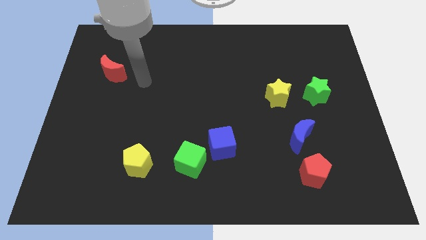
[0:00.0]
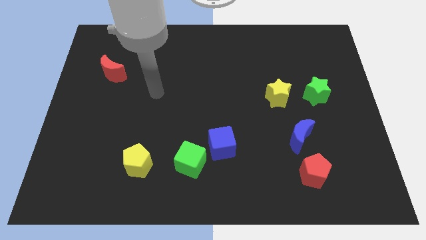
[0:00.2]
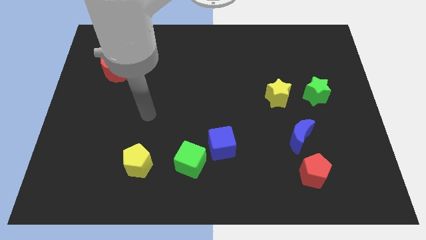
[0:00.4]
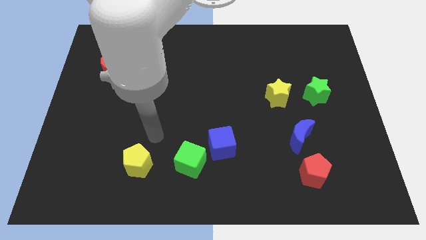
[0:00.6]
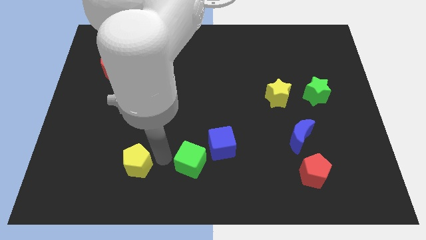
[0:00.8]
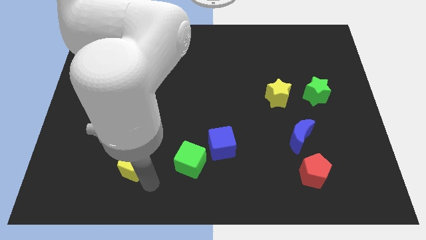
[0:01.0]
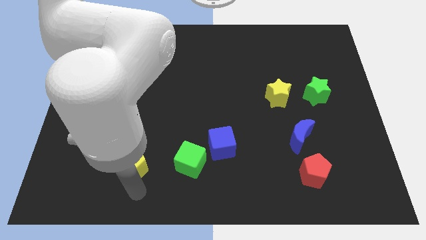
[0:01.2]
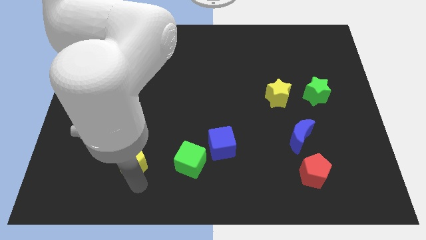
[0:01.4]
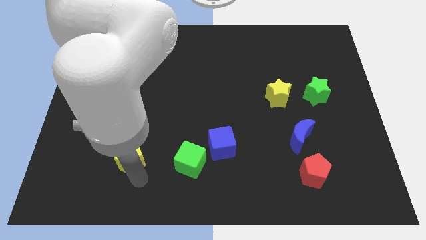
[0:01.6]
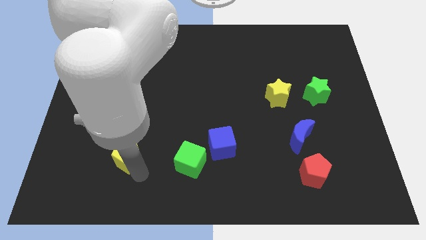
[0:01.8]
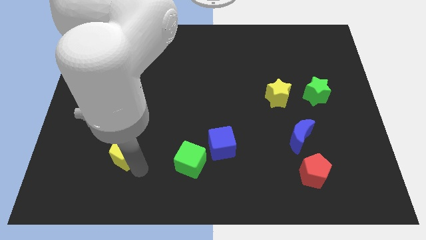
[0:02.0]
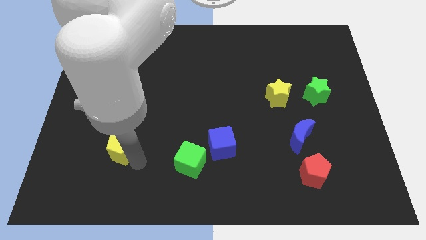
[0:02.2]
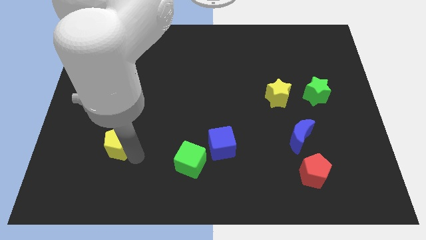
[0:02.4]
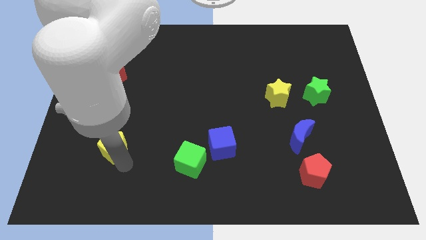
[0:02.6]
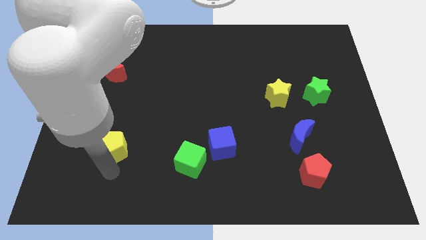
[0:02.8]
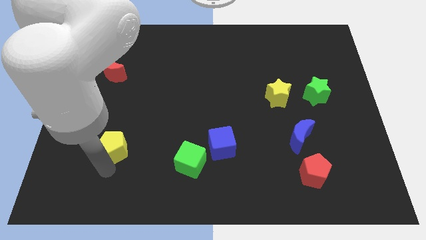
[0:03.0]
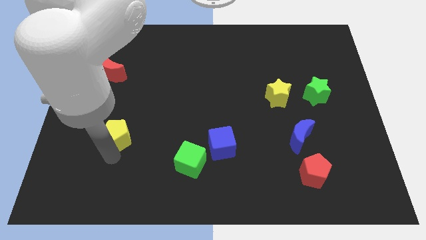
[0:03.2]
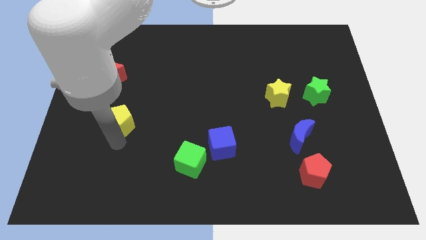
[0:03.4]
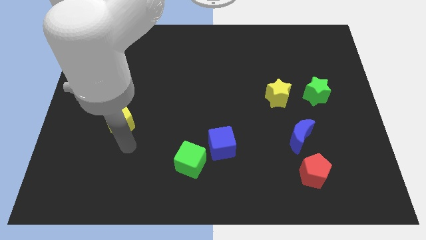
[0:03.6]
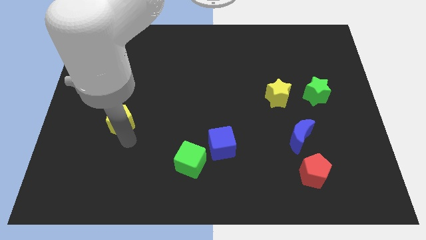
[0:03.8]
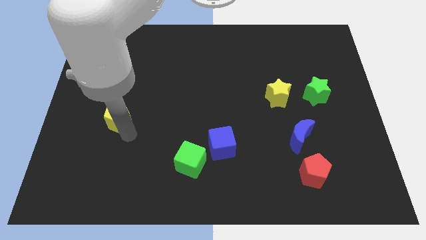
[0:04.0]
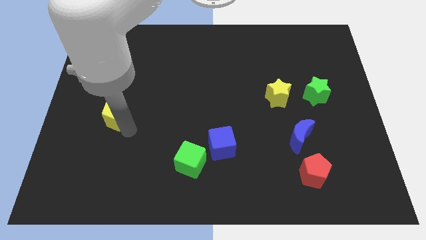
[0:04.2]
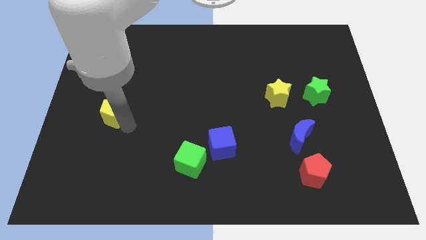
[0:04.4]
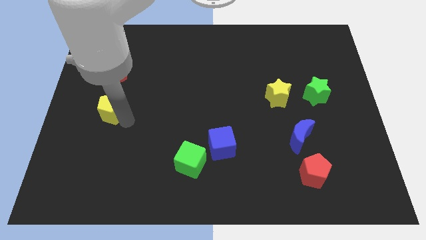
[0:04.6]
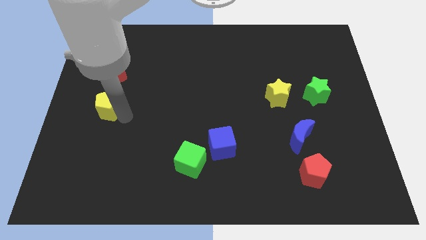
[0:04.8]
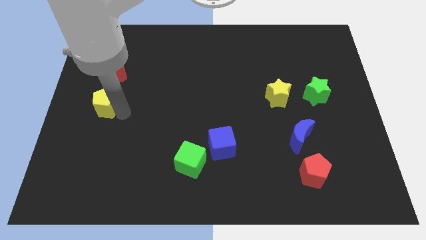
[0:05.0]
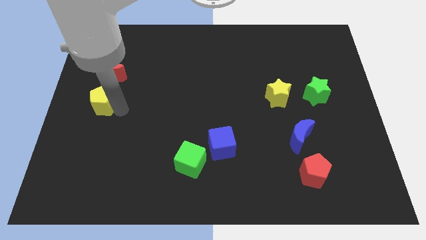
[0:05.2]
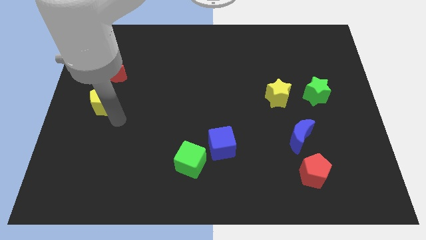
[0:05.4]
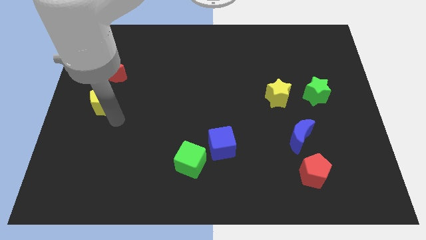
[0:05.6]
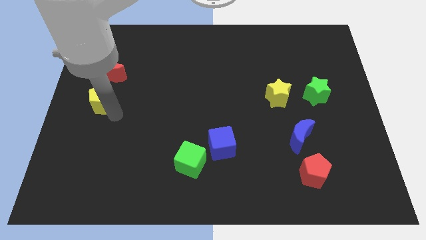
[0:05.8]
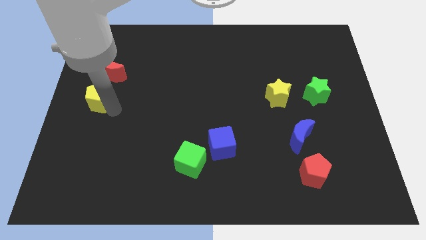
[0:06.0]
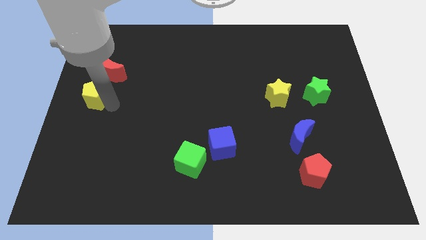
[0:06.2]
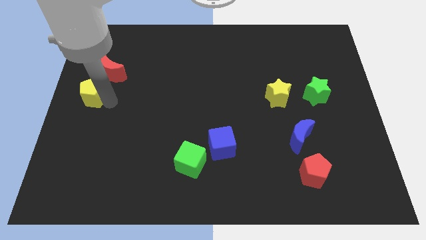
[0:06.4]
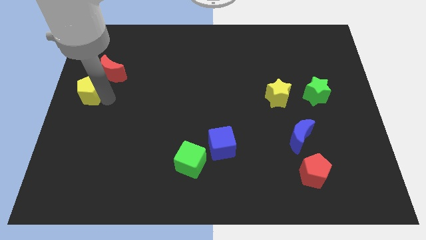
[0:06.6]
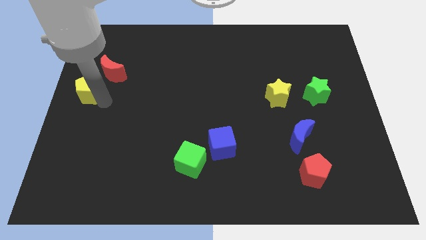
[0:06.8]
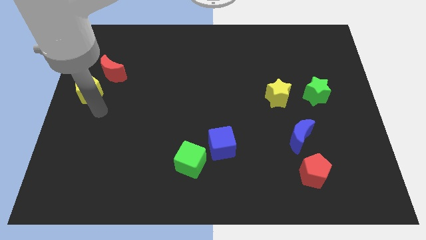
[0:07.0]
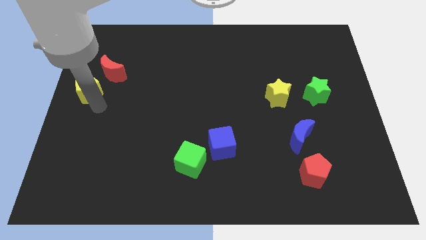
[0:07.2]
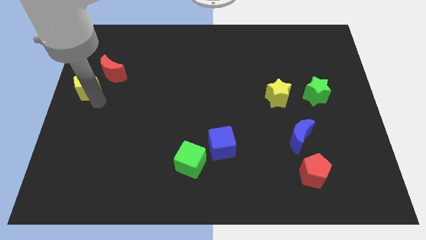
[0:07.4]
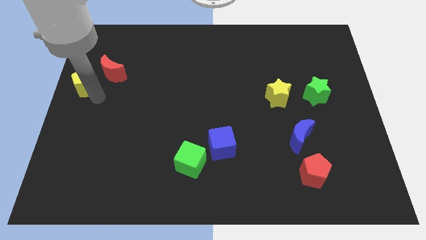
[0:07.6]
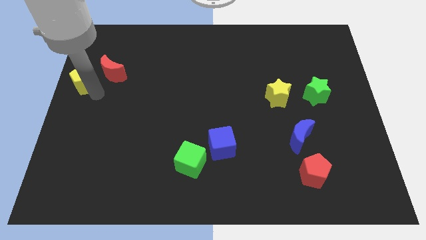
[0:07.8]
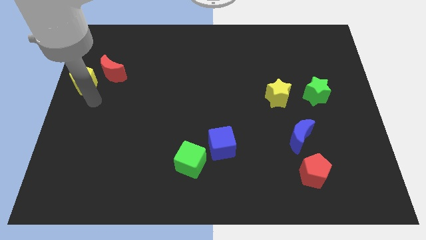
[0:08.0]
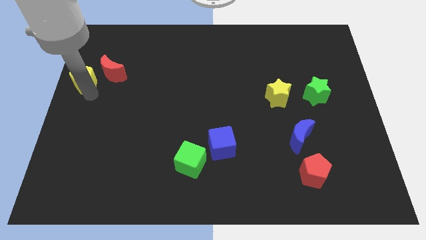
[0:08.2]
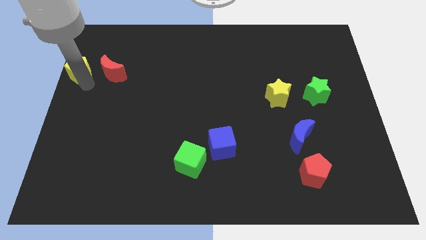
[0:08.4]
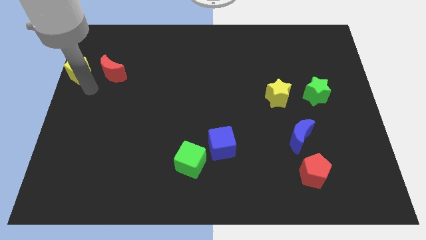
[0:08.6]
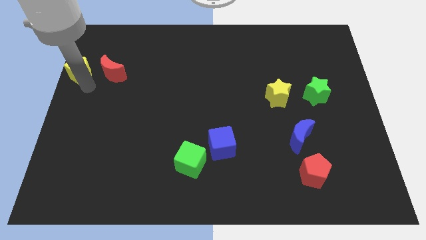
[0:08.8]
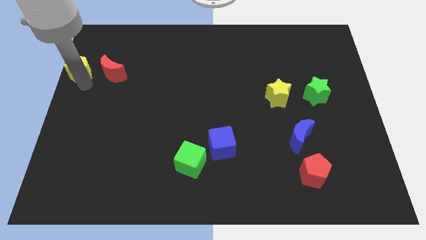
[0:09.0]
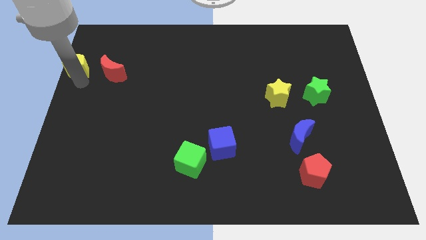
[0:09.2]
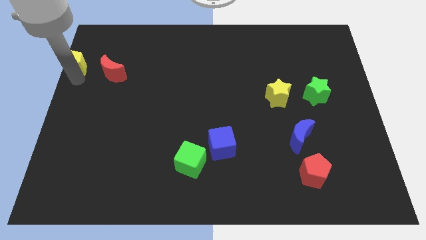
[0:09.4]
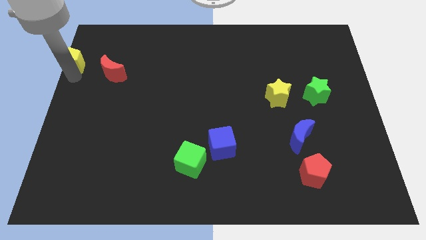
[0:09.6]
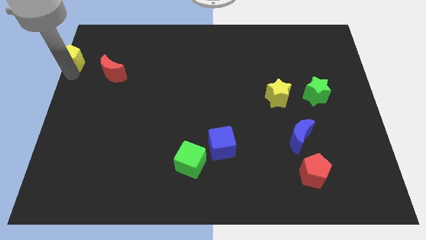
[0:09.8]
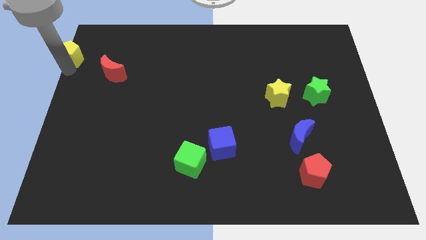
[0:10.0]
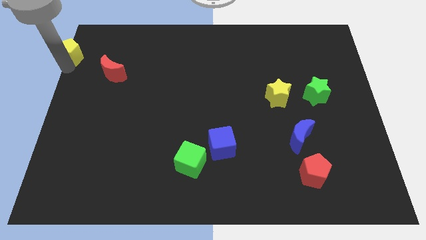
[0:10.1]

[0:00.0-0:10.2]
slide the yellow pentagon to the upper left corner

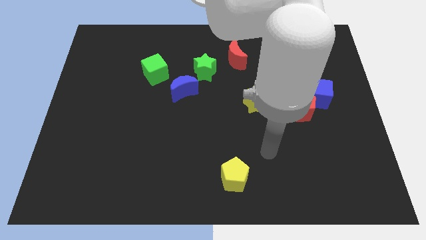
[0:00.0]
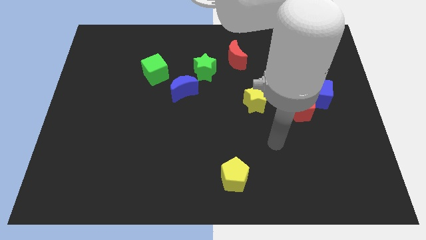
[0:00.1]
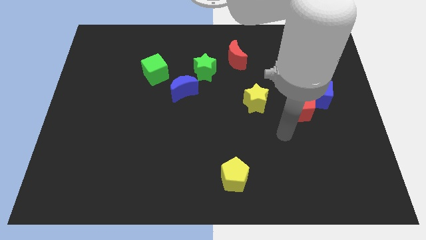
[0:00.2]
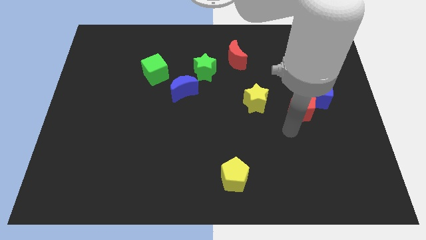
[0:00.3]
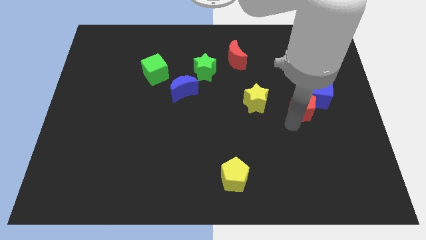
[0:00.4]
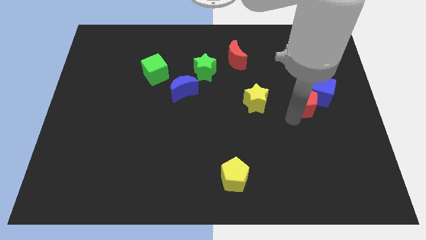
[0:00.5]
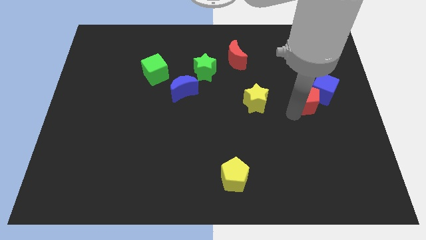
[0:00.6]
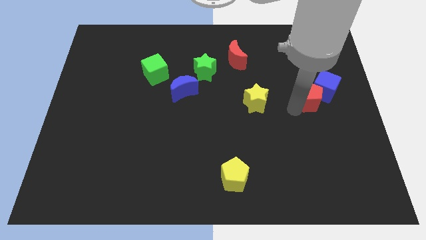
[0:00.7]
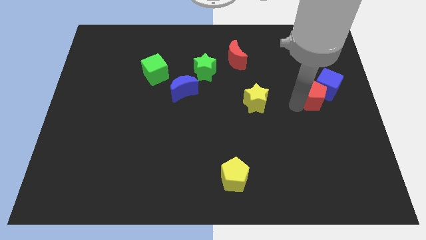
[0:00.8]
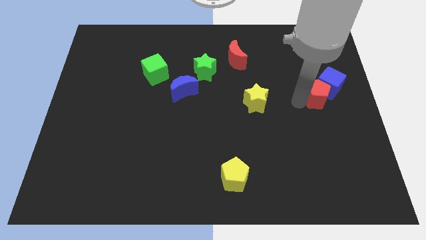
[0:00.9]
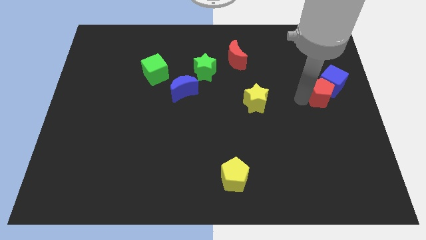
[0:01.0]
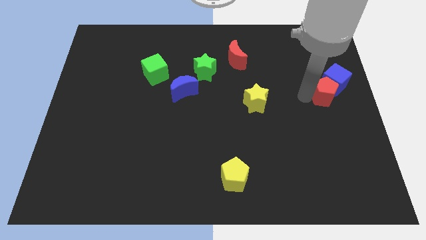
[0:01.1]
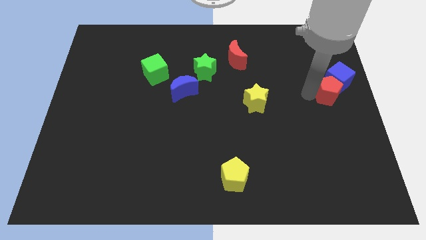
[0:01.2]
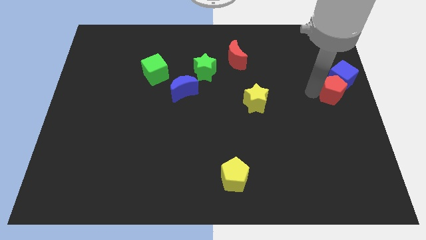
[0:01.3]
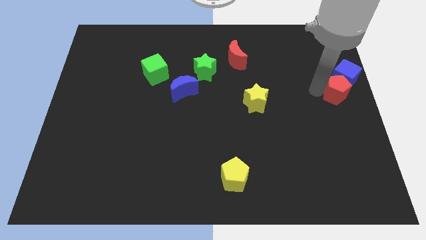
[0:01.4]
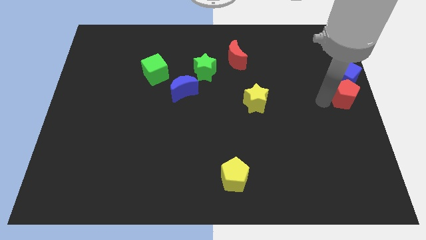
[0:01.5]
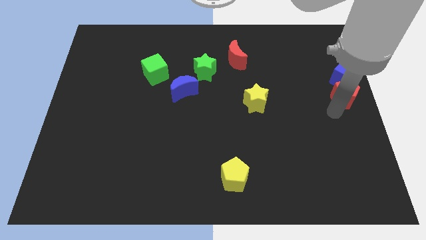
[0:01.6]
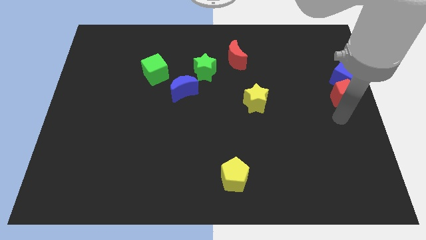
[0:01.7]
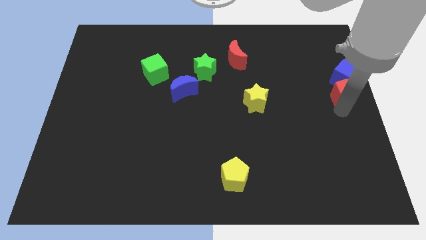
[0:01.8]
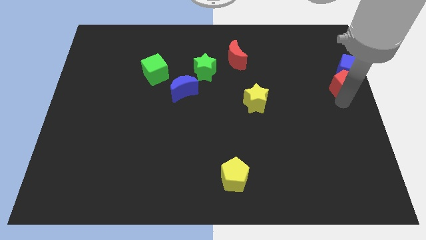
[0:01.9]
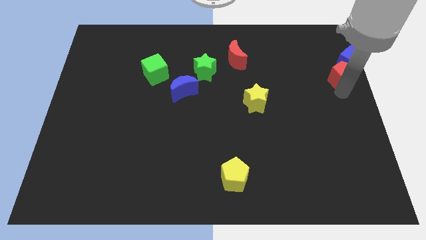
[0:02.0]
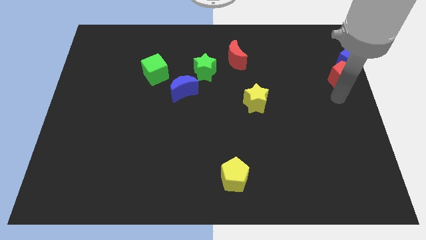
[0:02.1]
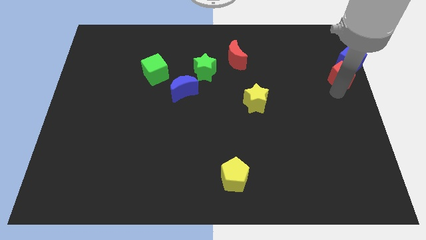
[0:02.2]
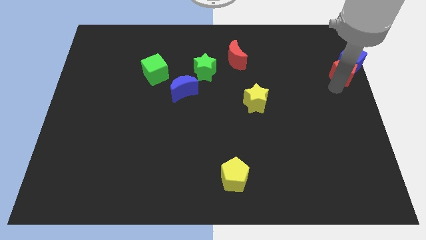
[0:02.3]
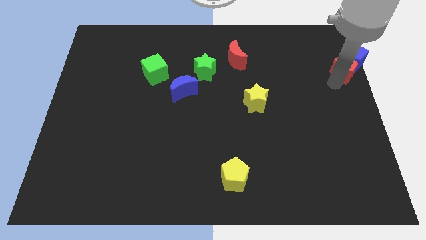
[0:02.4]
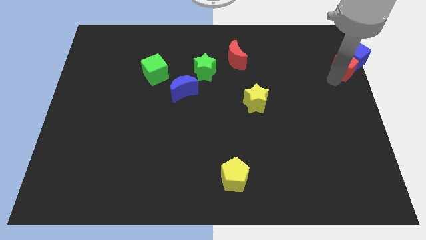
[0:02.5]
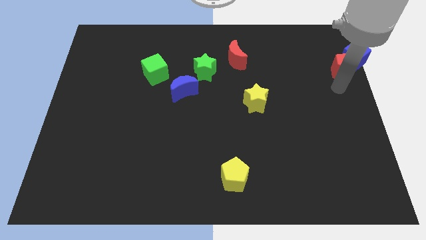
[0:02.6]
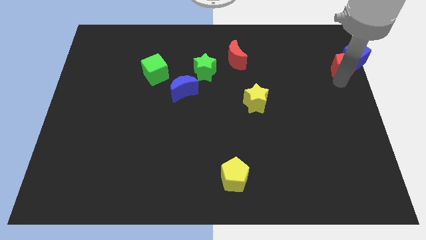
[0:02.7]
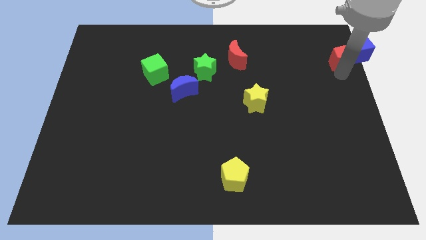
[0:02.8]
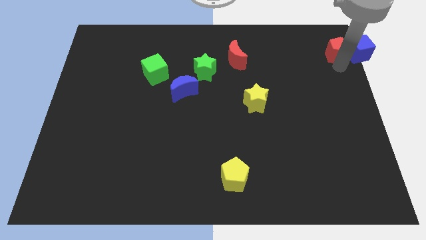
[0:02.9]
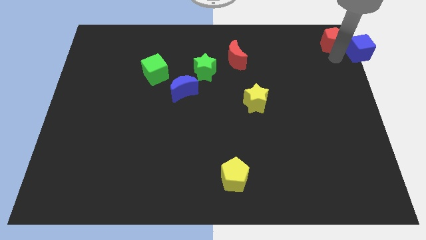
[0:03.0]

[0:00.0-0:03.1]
slide the red pentagon to the top right corner
